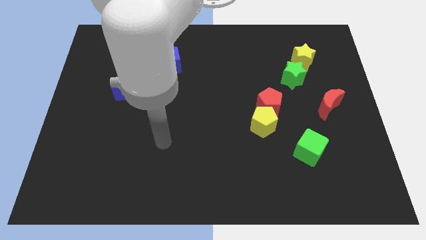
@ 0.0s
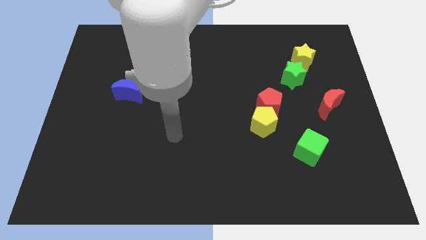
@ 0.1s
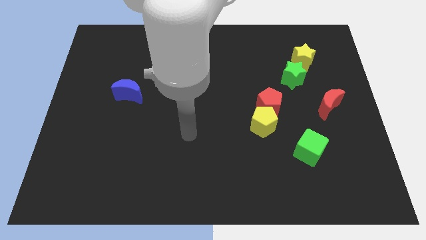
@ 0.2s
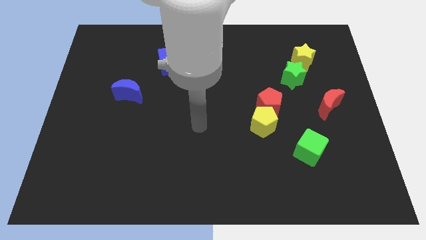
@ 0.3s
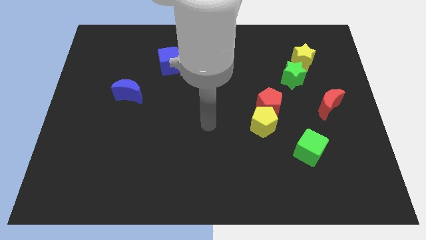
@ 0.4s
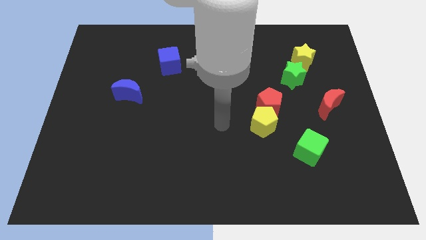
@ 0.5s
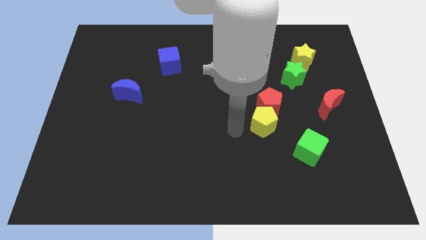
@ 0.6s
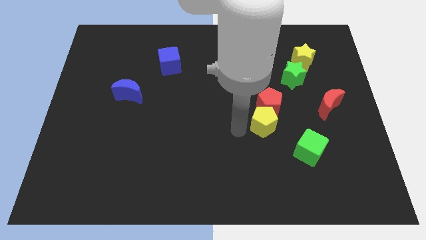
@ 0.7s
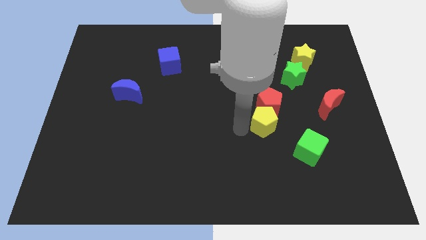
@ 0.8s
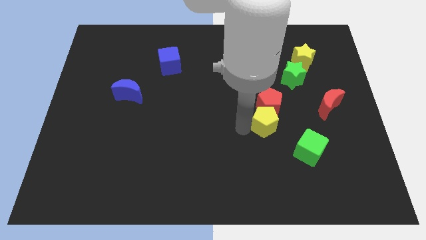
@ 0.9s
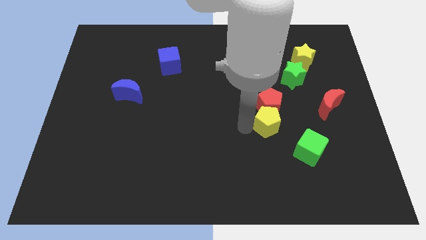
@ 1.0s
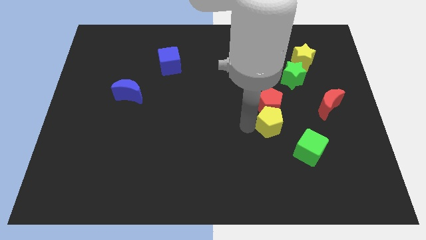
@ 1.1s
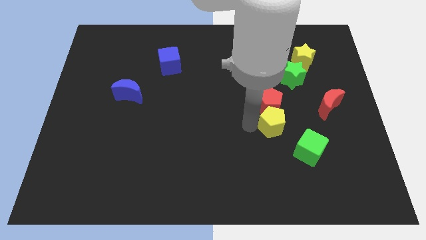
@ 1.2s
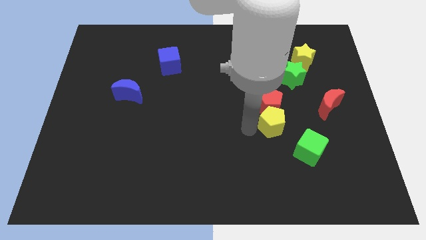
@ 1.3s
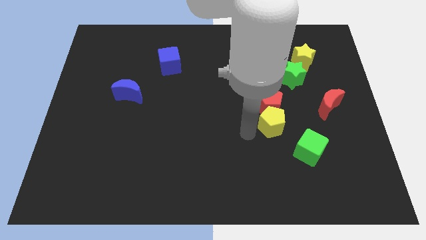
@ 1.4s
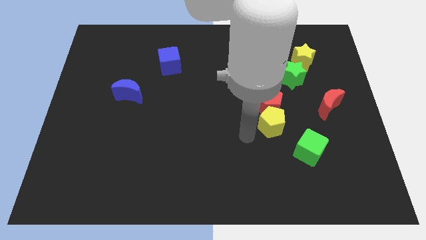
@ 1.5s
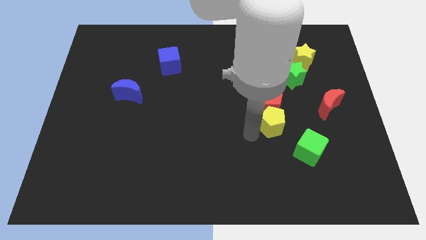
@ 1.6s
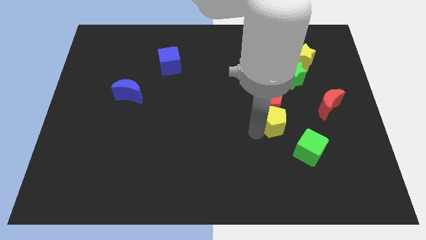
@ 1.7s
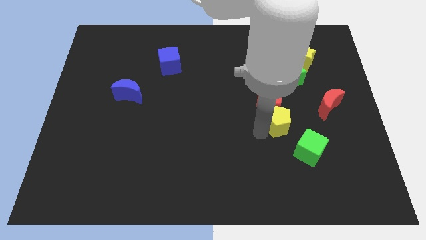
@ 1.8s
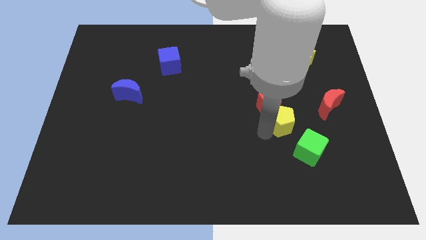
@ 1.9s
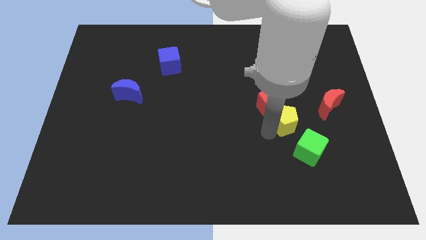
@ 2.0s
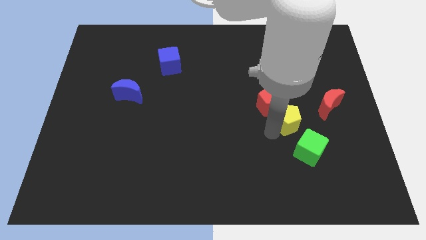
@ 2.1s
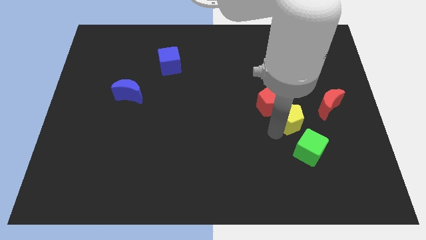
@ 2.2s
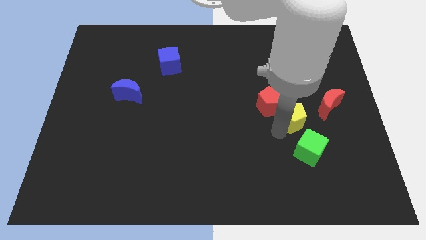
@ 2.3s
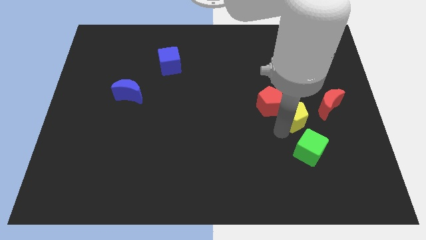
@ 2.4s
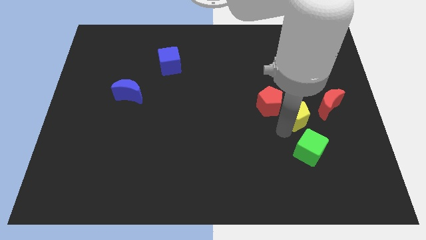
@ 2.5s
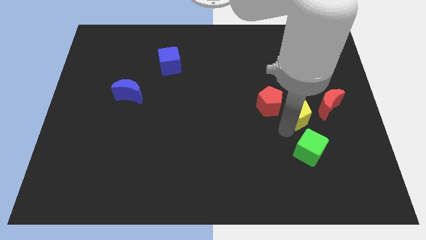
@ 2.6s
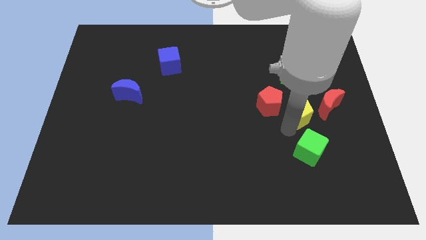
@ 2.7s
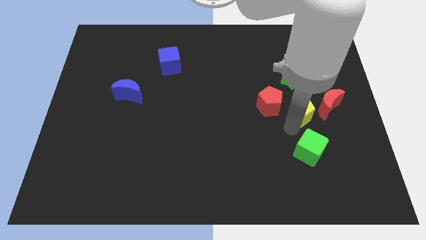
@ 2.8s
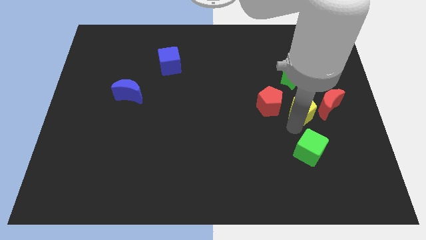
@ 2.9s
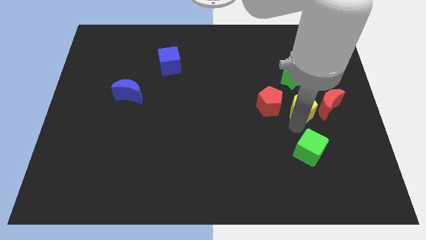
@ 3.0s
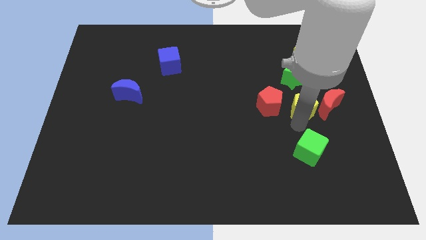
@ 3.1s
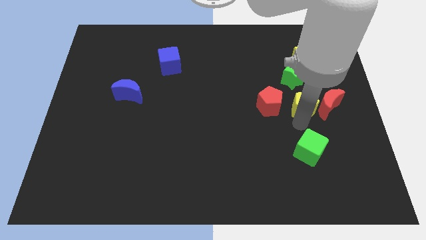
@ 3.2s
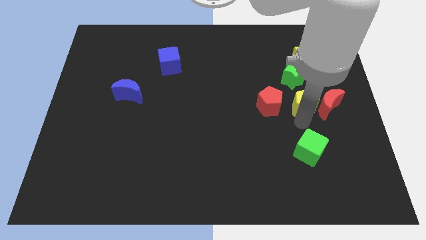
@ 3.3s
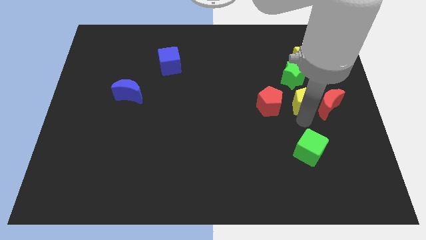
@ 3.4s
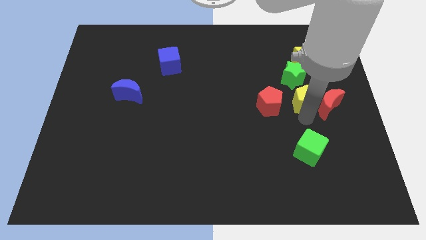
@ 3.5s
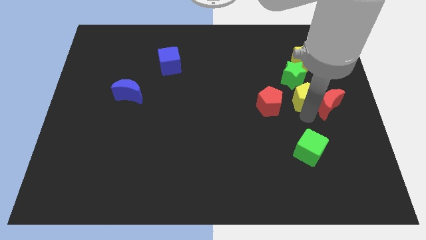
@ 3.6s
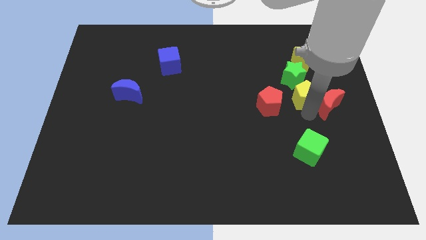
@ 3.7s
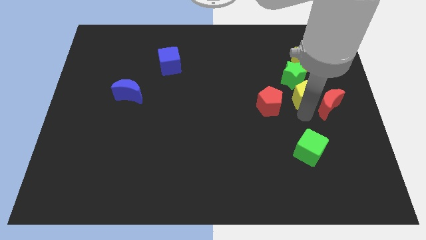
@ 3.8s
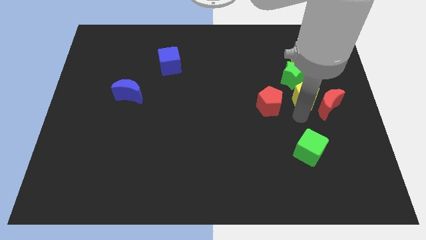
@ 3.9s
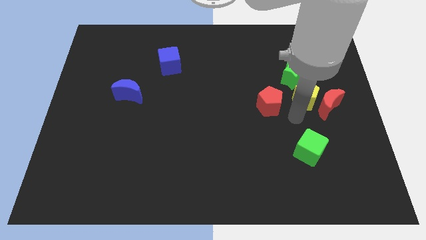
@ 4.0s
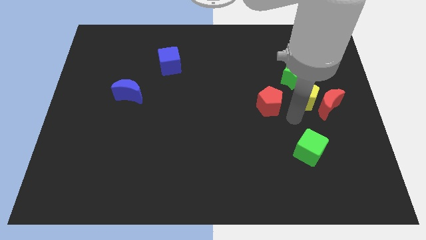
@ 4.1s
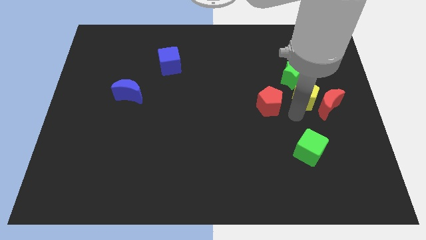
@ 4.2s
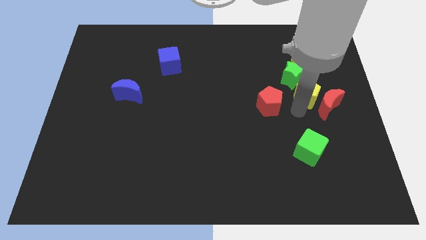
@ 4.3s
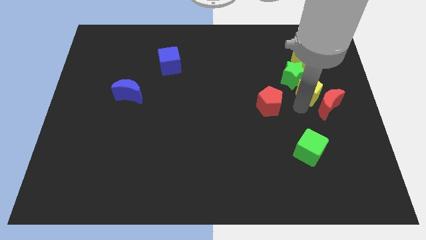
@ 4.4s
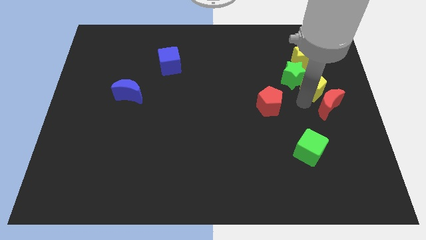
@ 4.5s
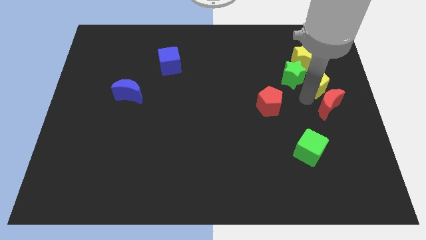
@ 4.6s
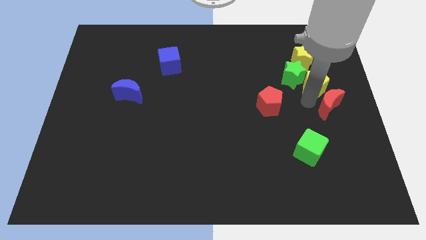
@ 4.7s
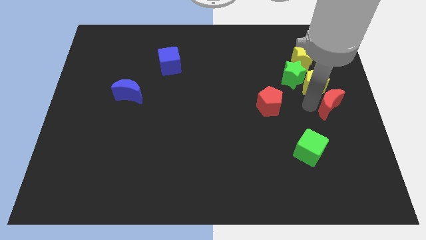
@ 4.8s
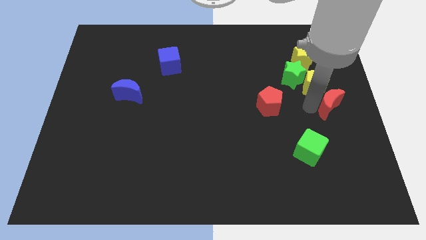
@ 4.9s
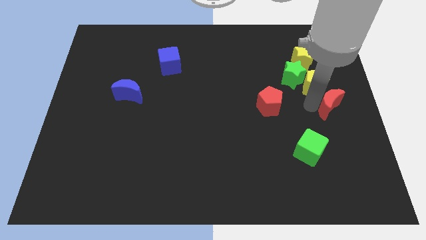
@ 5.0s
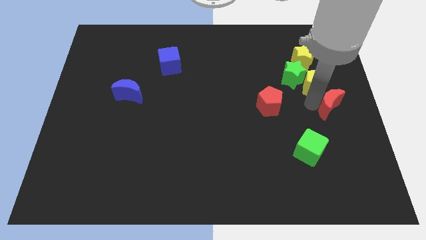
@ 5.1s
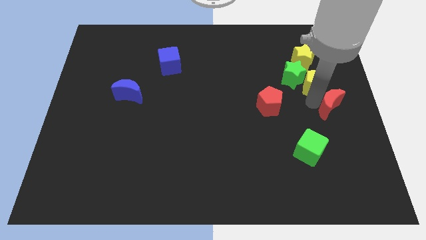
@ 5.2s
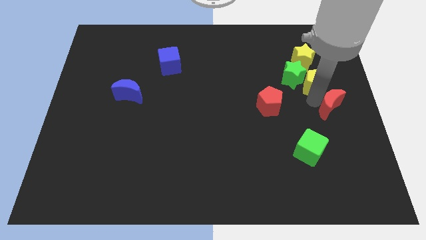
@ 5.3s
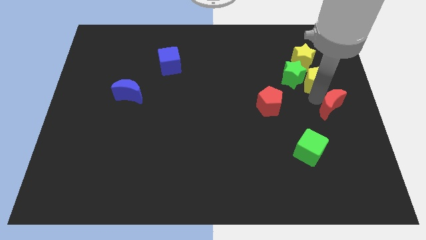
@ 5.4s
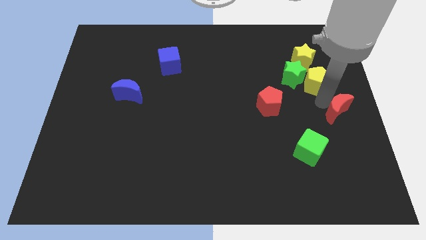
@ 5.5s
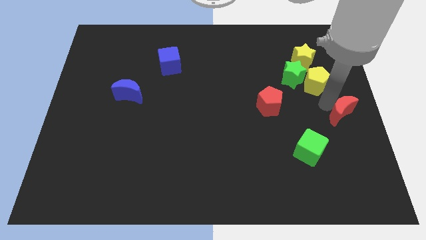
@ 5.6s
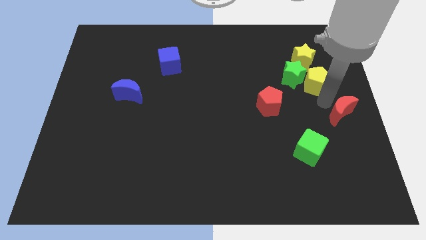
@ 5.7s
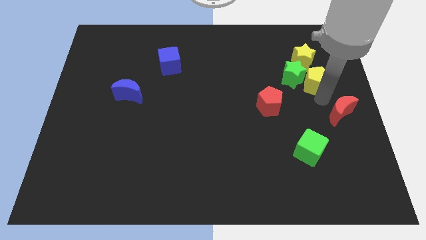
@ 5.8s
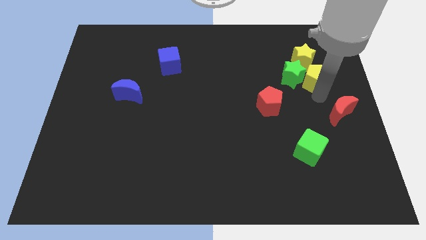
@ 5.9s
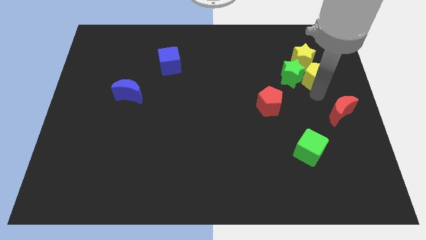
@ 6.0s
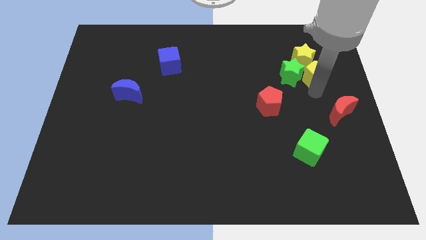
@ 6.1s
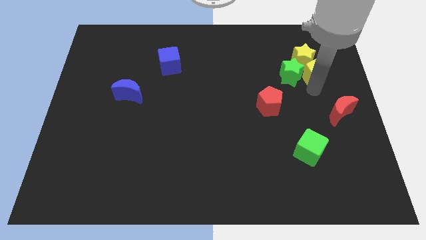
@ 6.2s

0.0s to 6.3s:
push the yellow pentagon towards the yellow star

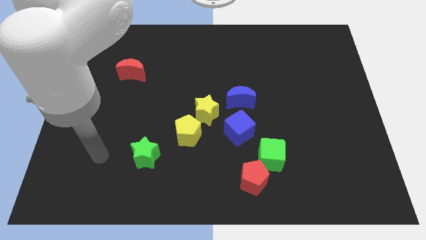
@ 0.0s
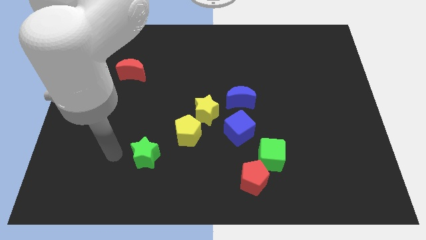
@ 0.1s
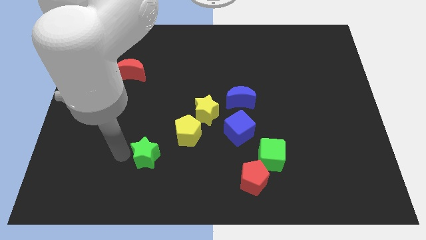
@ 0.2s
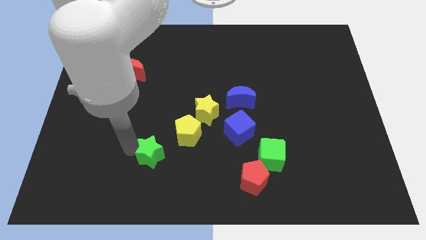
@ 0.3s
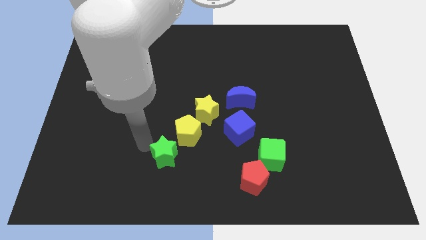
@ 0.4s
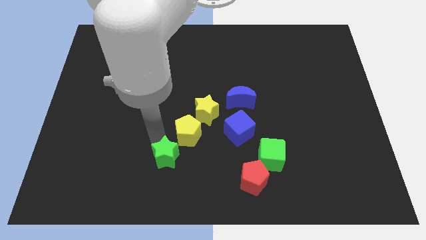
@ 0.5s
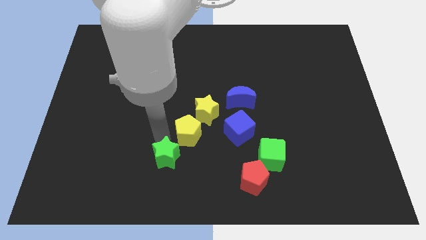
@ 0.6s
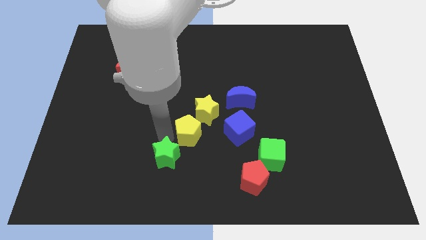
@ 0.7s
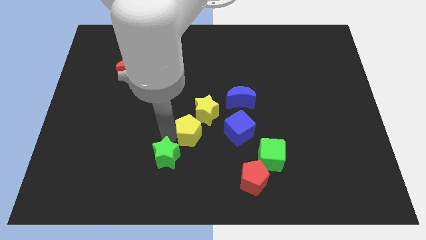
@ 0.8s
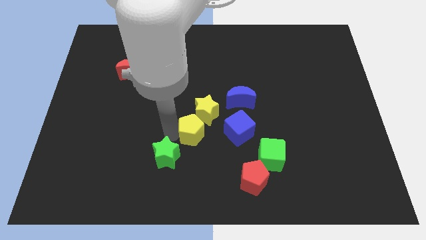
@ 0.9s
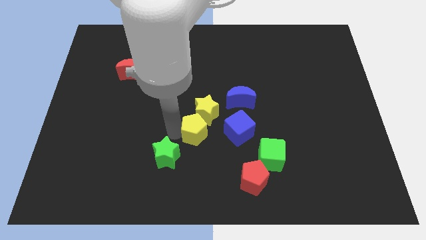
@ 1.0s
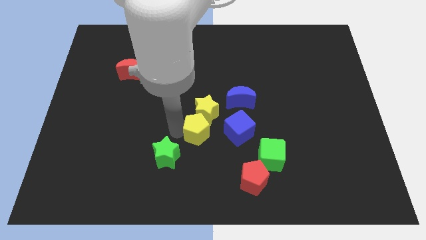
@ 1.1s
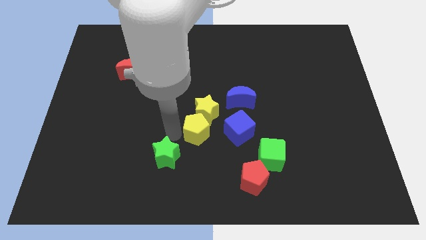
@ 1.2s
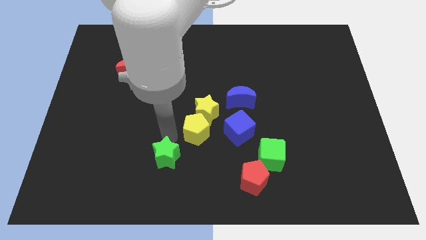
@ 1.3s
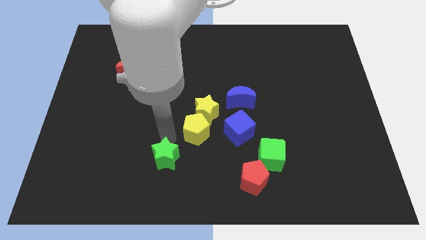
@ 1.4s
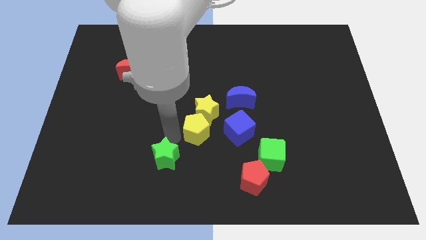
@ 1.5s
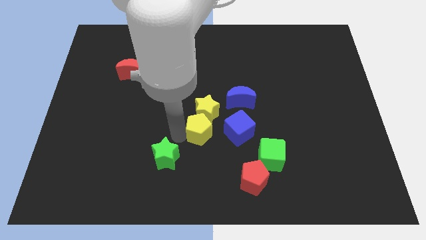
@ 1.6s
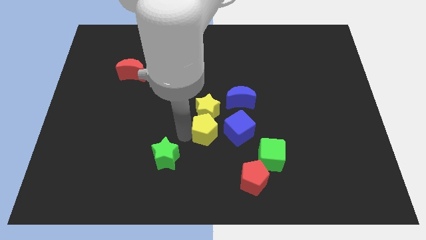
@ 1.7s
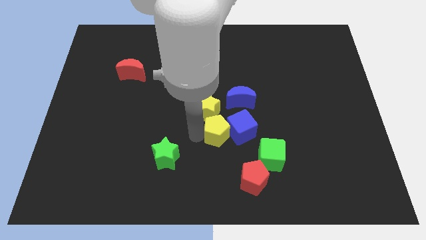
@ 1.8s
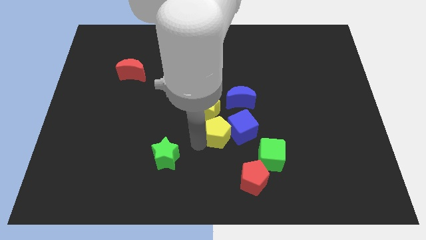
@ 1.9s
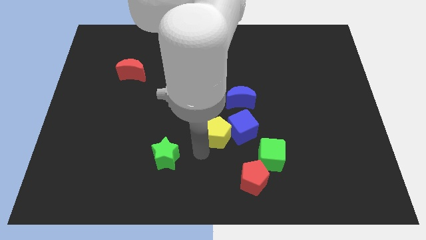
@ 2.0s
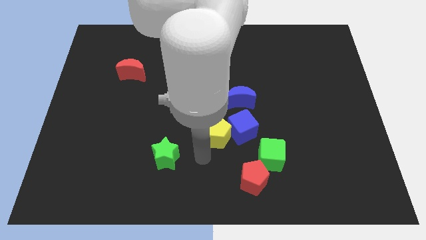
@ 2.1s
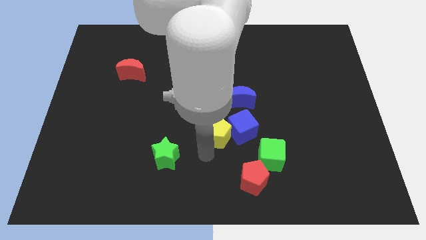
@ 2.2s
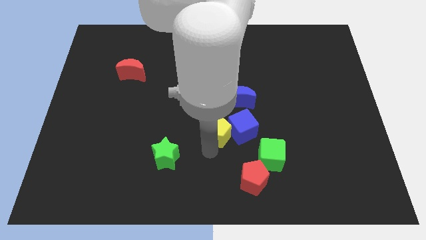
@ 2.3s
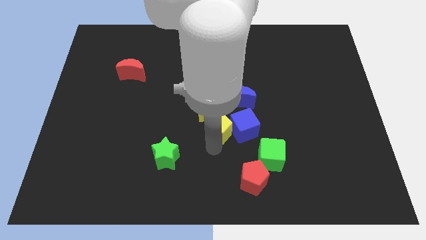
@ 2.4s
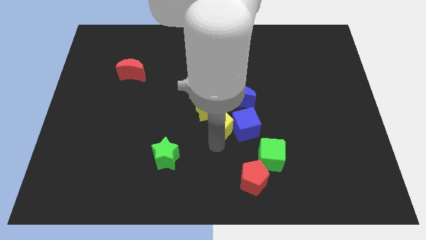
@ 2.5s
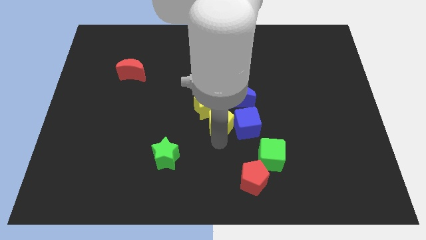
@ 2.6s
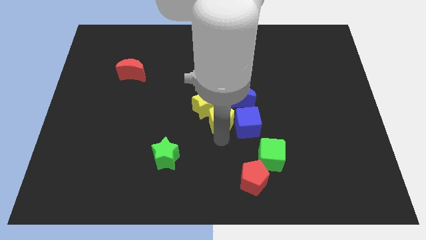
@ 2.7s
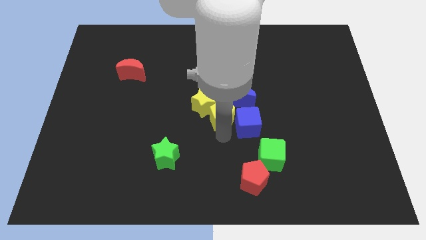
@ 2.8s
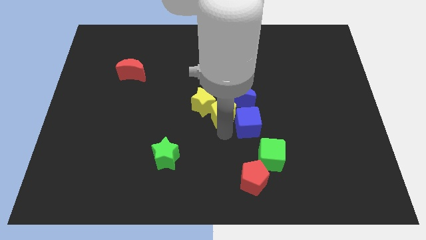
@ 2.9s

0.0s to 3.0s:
move the yellow pentagon close to the blue moon
